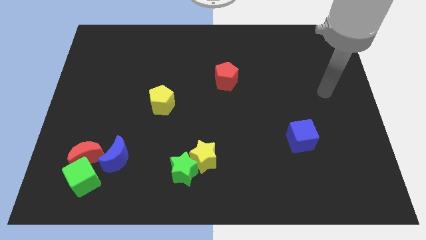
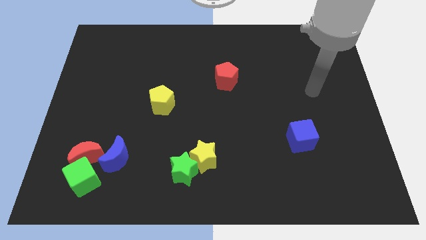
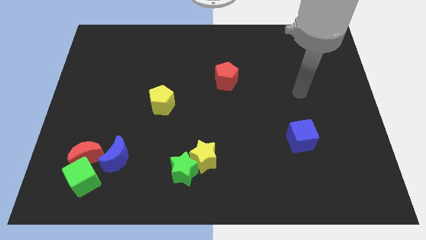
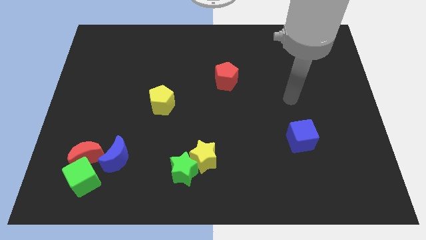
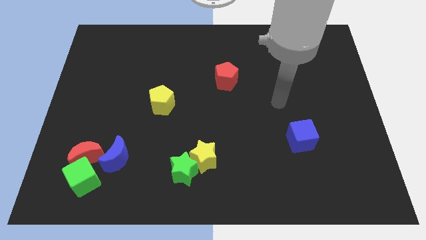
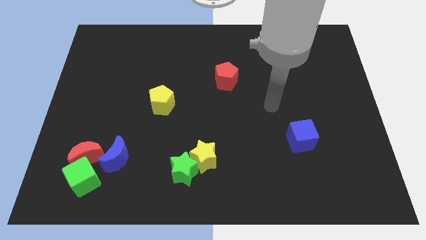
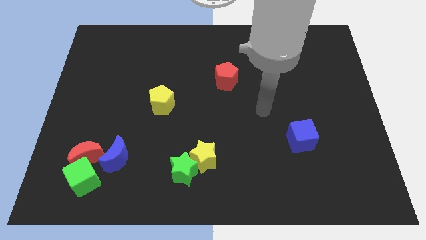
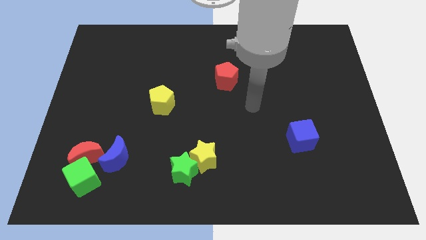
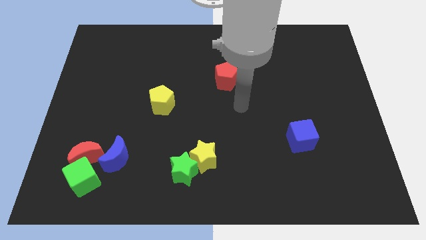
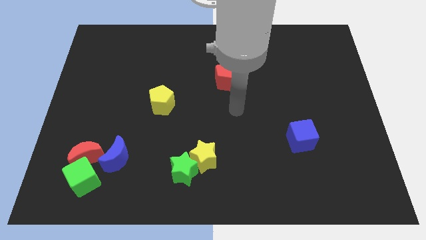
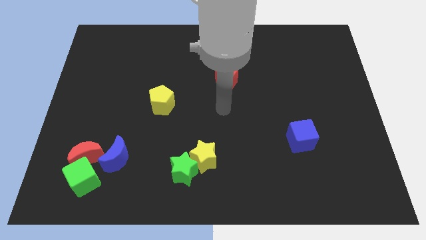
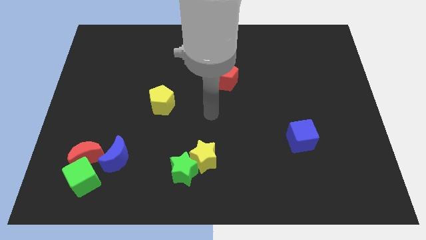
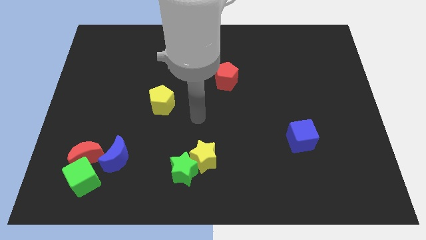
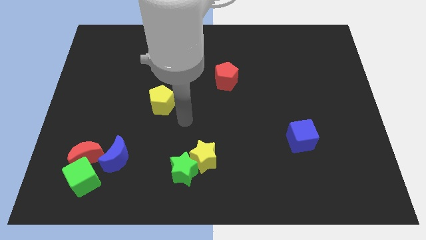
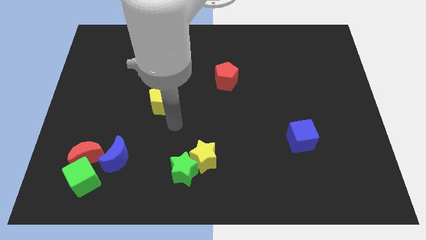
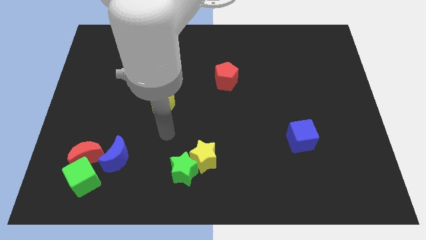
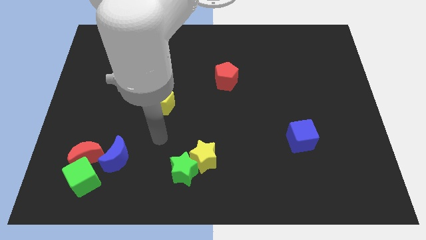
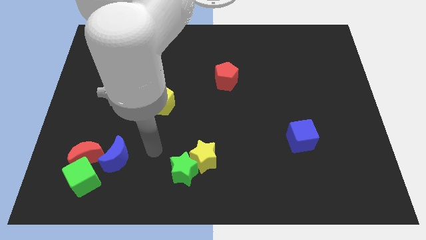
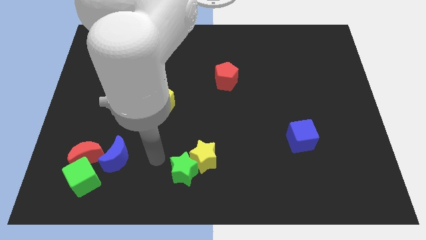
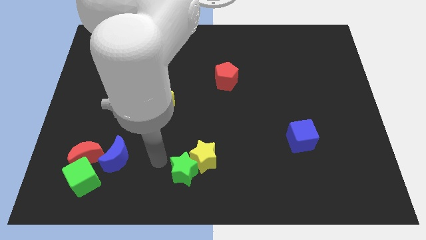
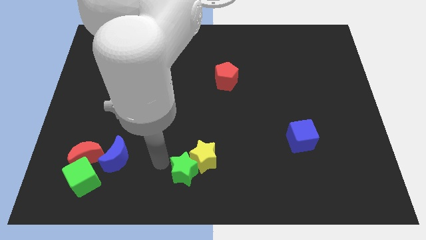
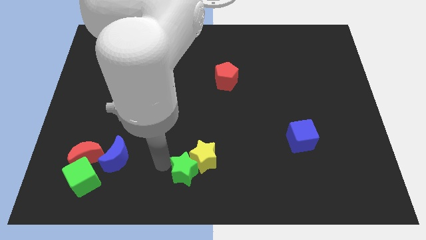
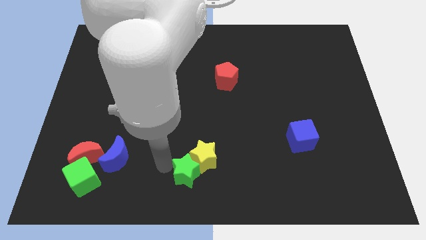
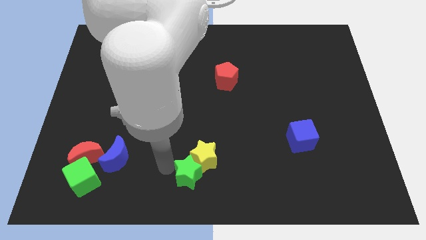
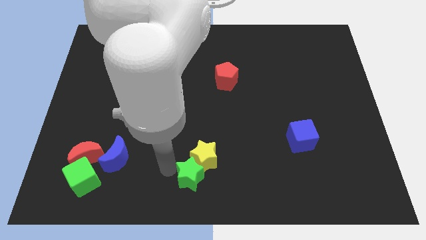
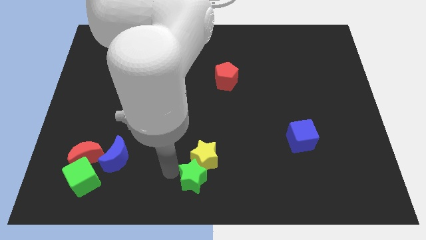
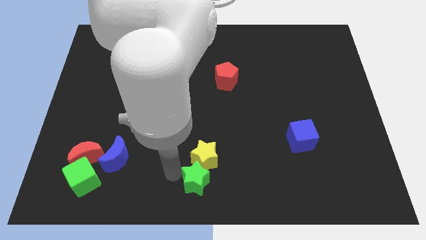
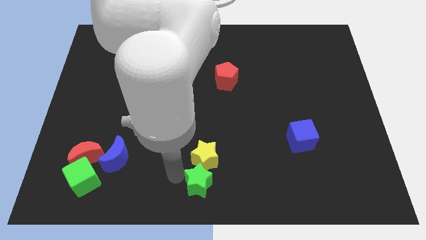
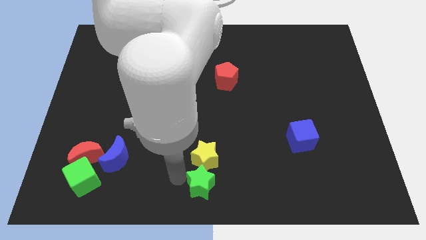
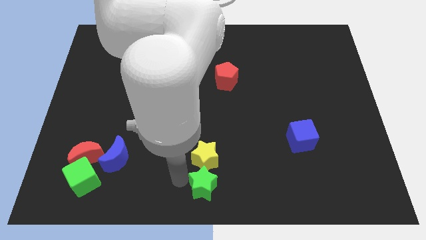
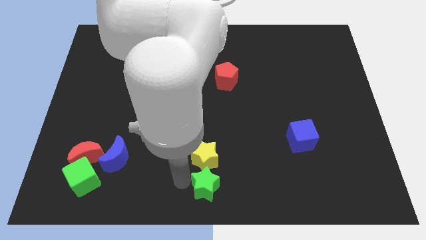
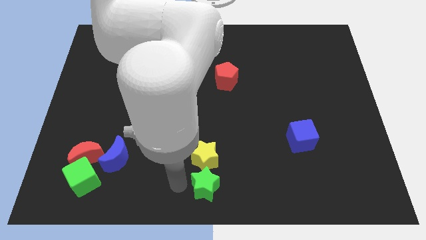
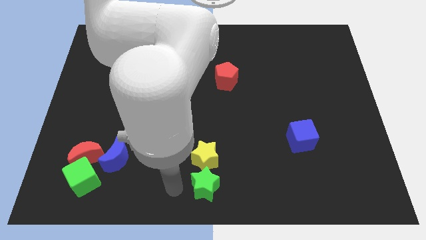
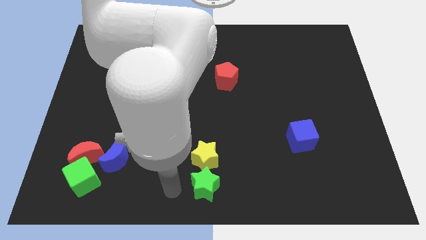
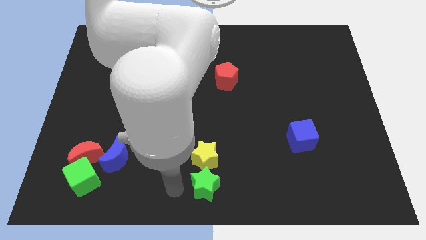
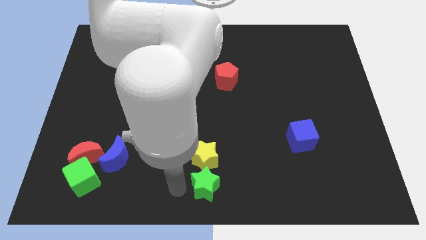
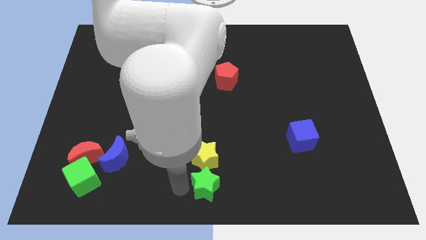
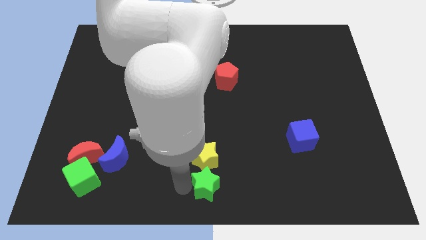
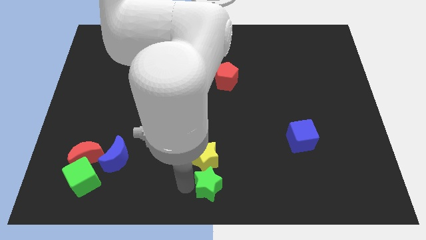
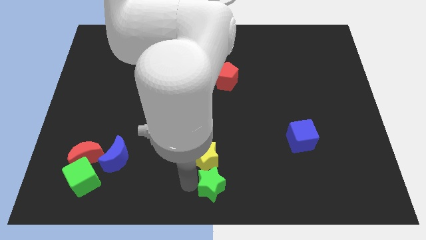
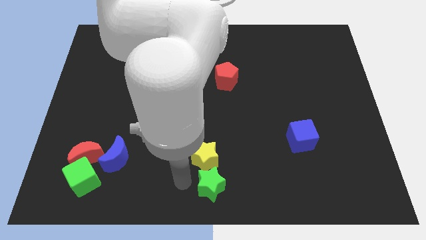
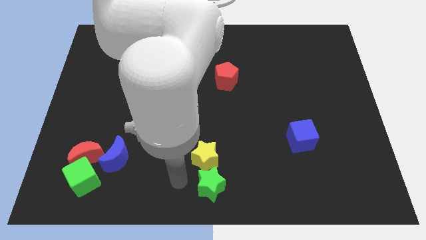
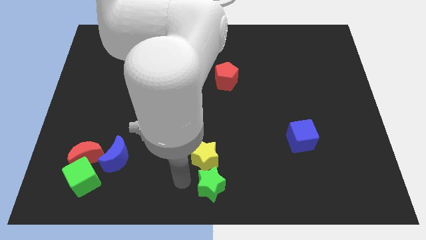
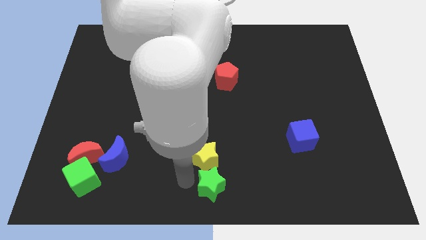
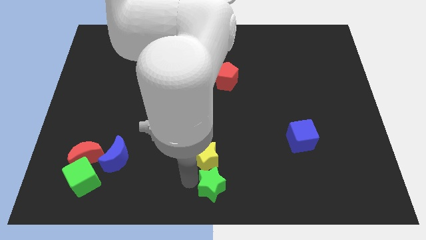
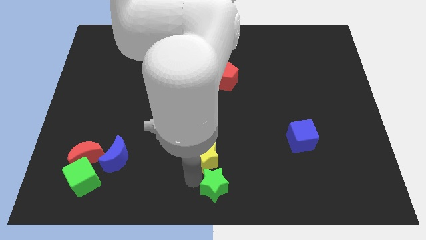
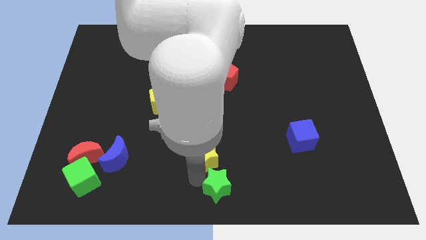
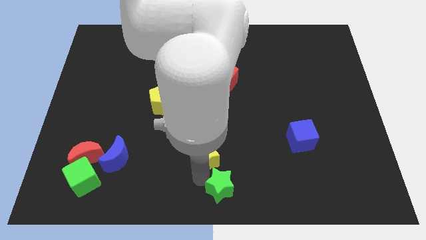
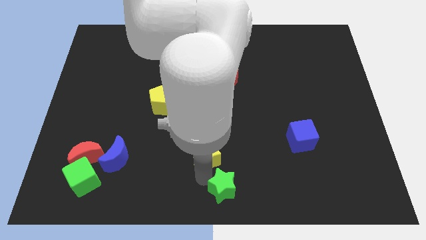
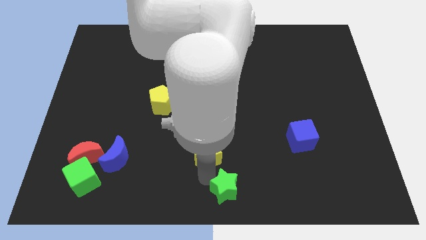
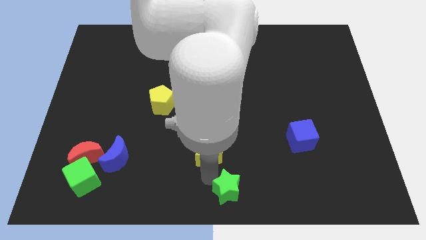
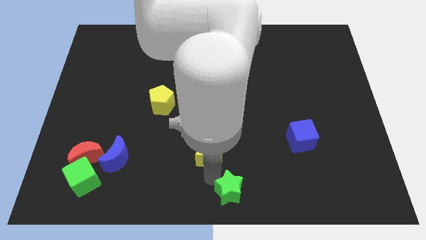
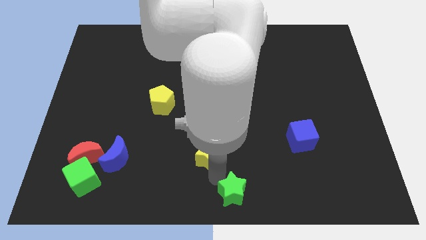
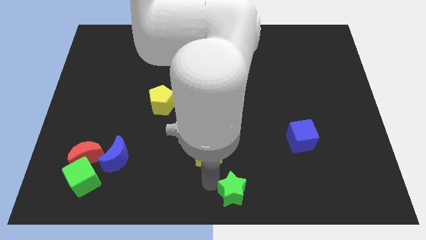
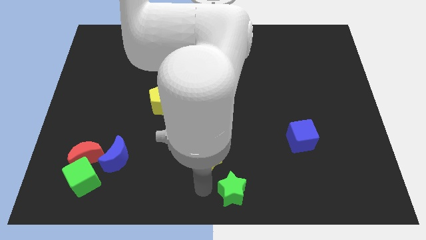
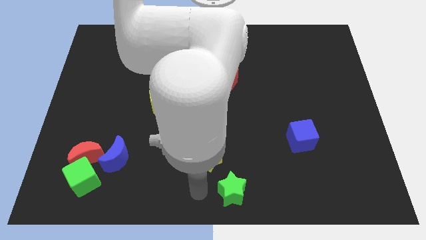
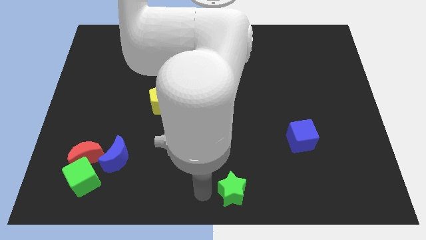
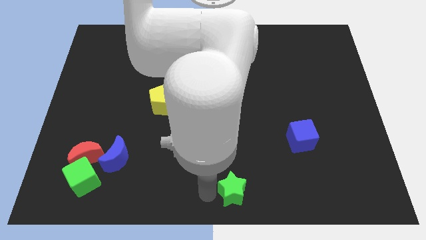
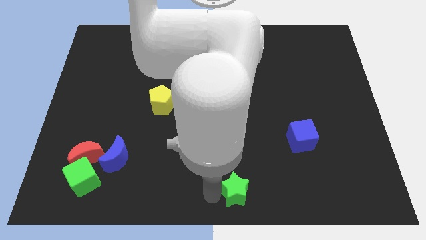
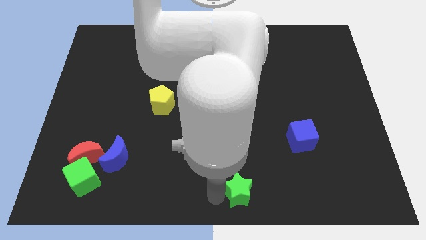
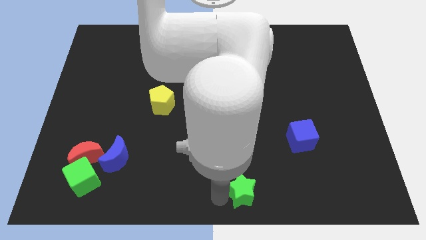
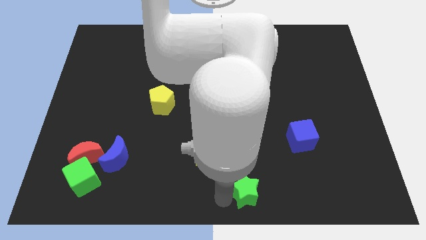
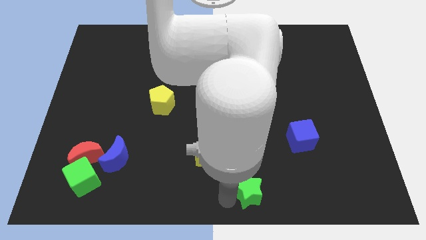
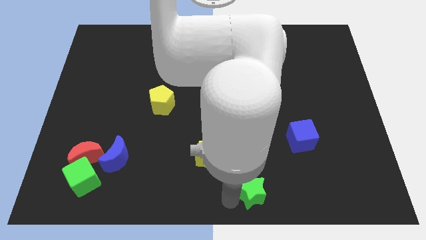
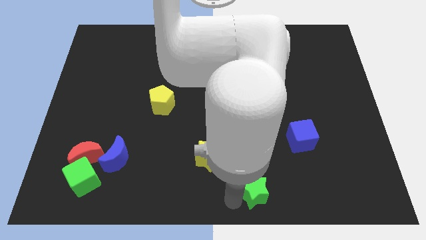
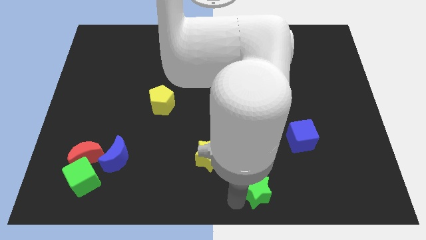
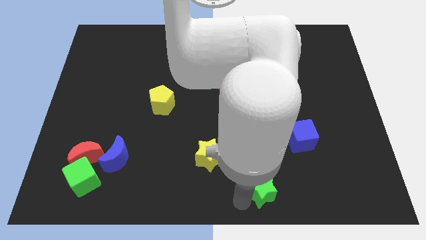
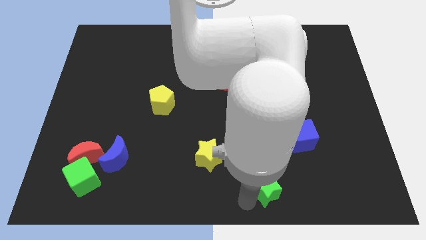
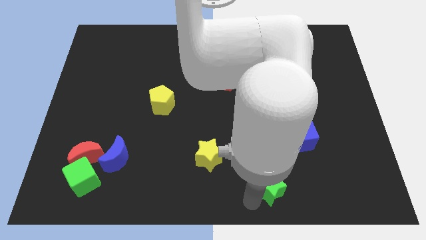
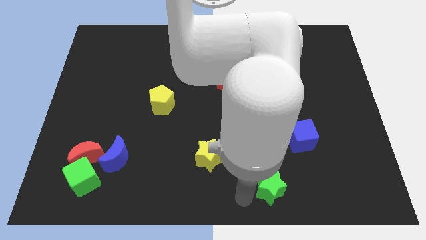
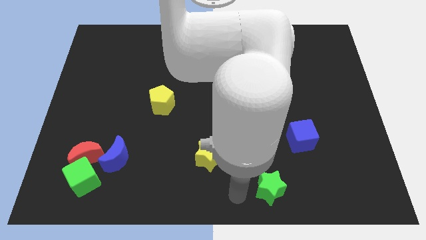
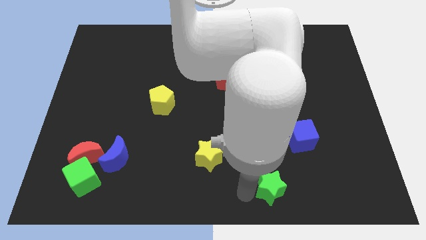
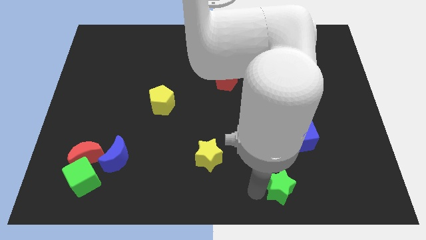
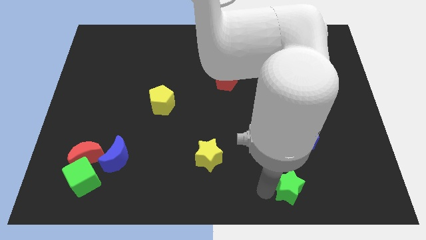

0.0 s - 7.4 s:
put the green star to the bottom of the blue cube
